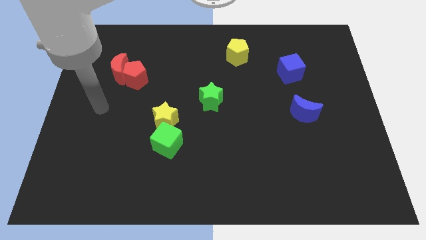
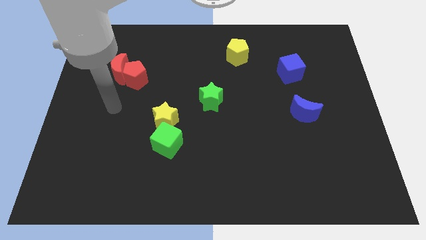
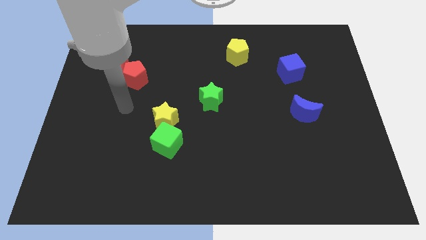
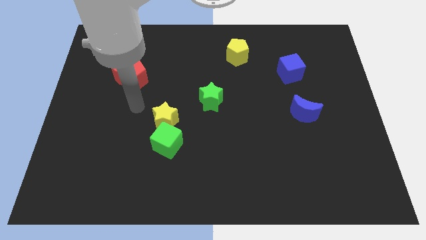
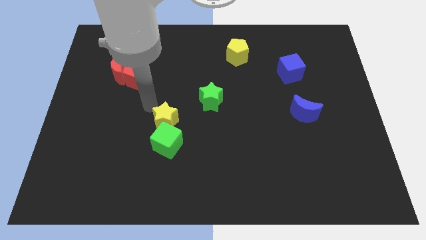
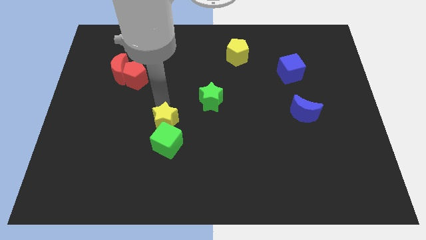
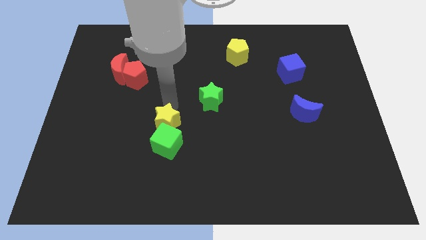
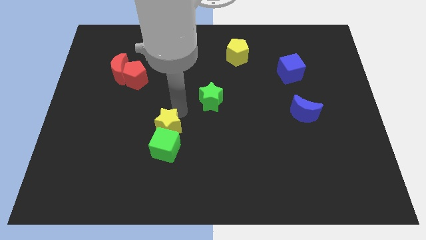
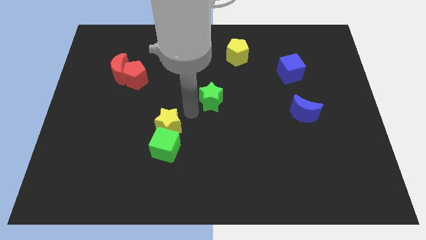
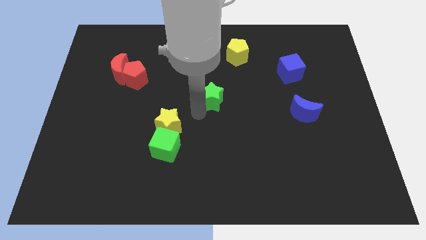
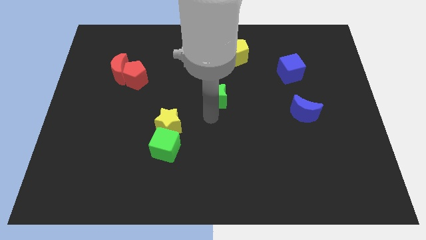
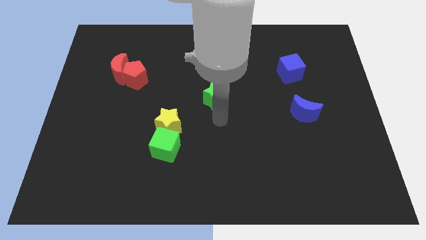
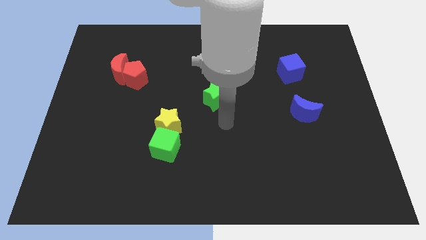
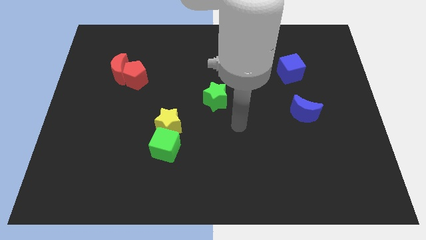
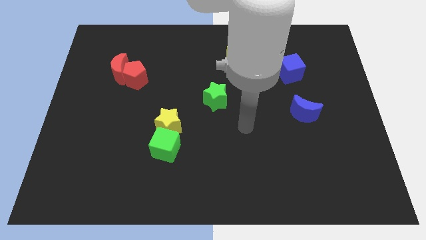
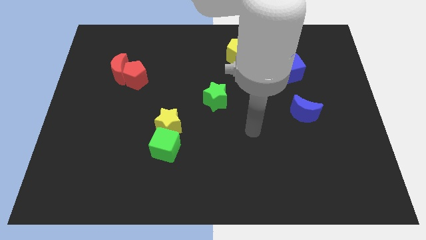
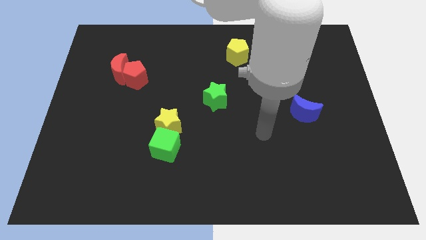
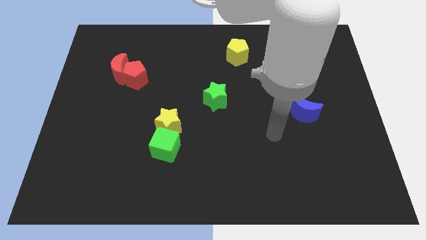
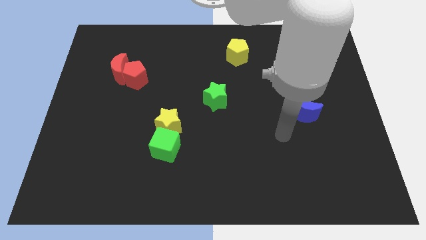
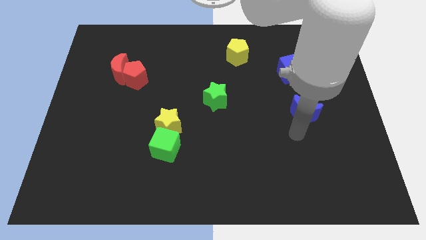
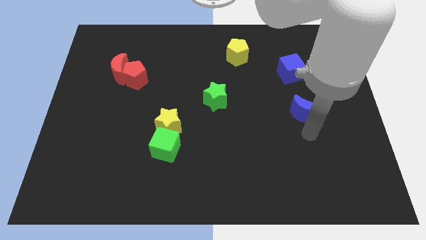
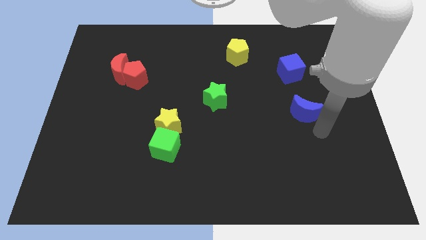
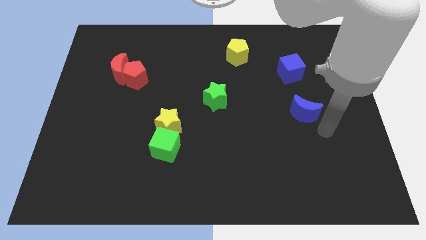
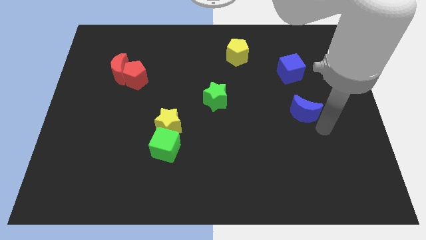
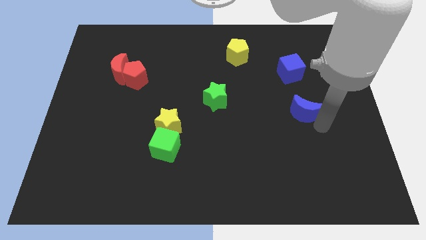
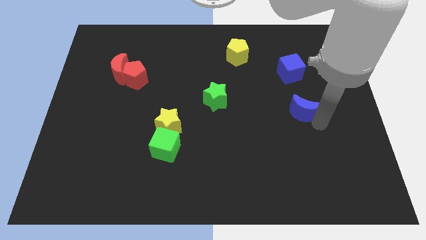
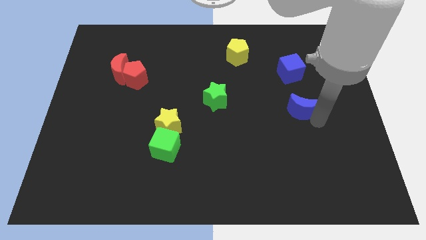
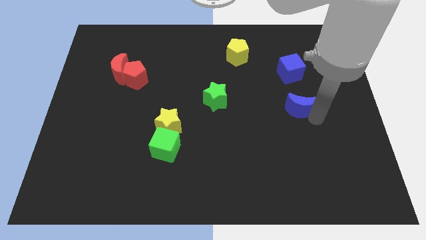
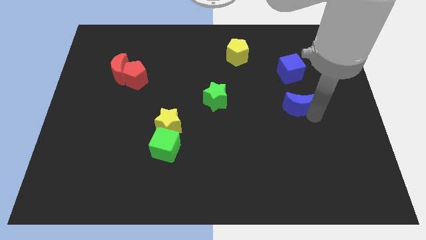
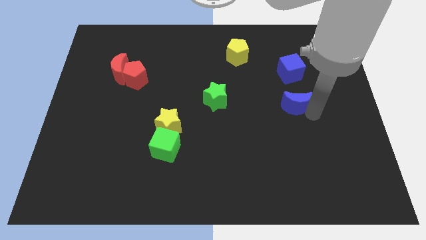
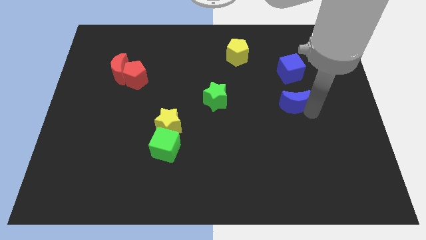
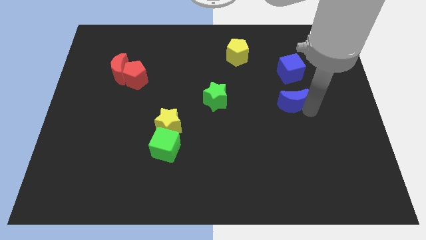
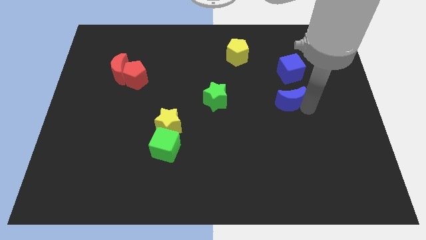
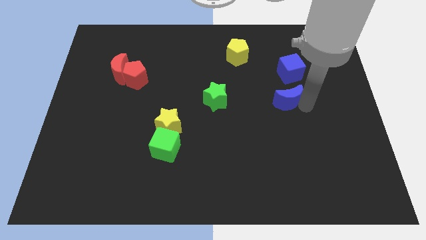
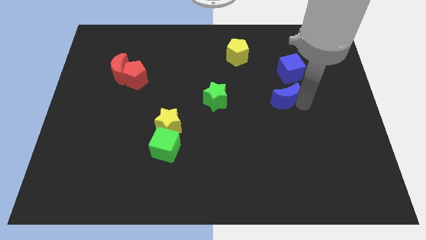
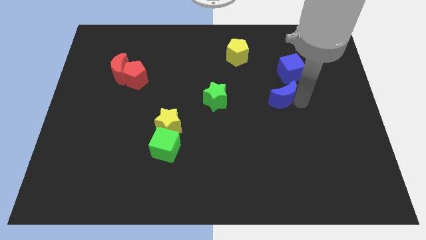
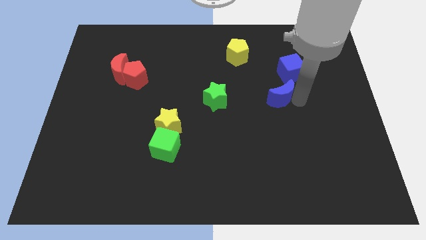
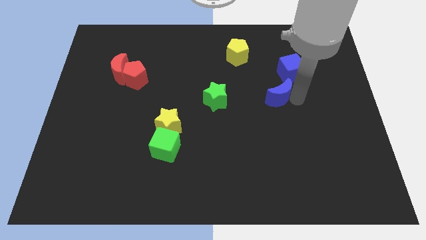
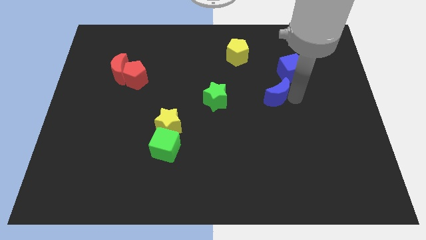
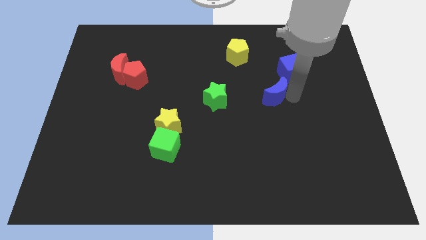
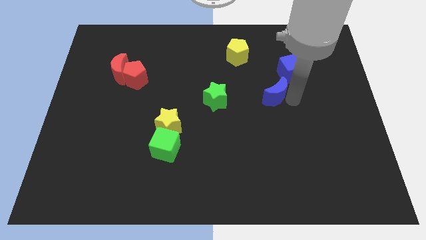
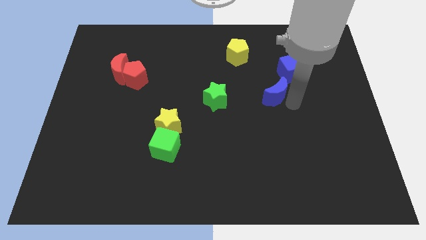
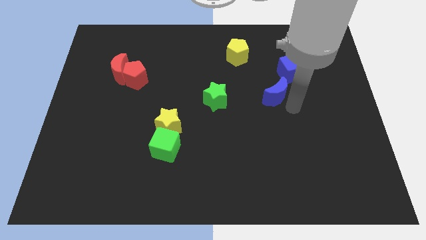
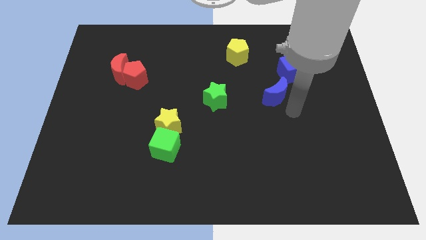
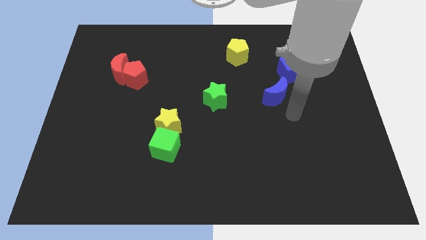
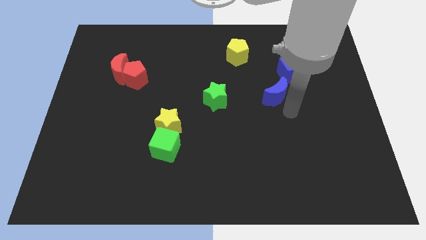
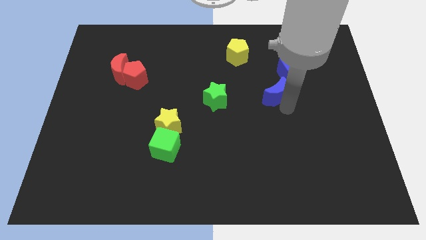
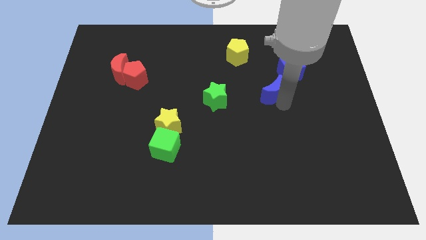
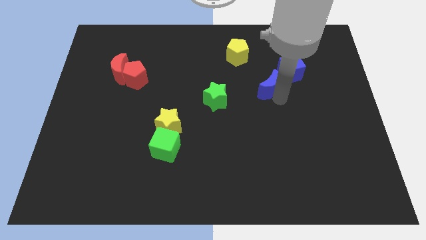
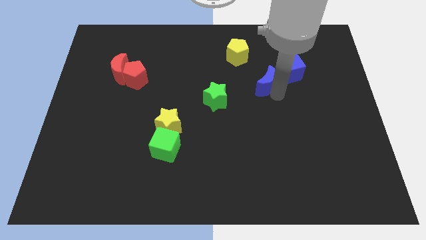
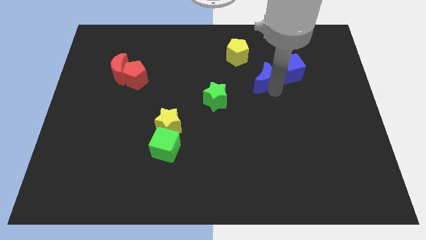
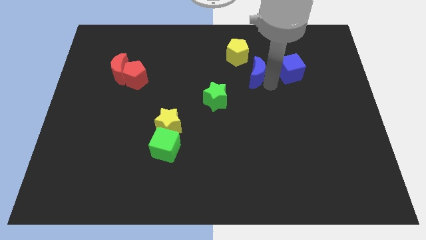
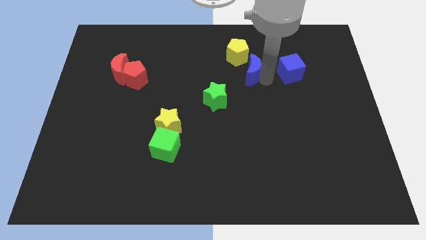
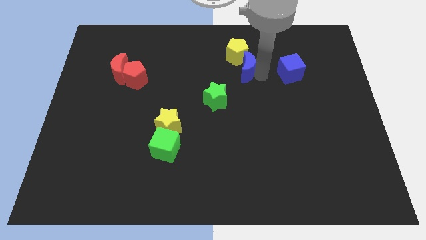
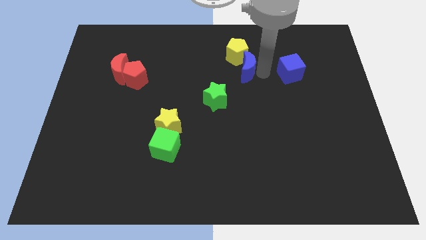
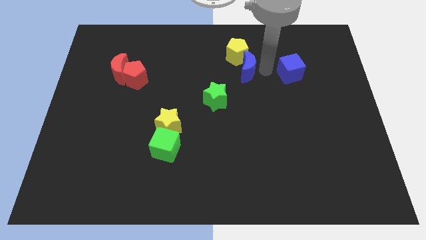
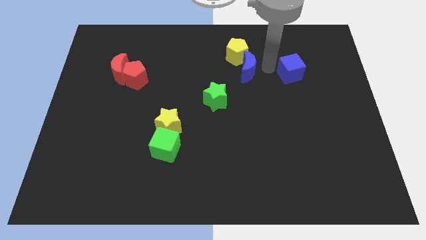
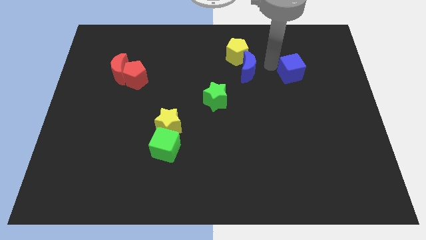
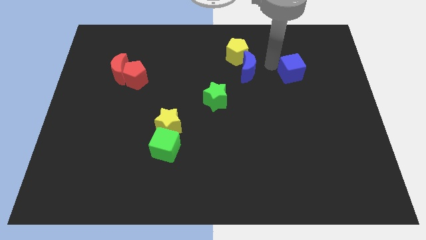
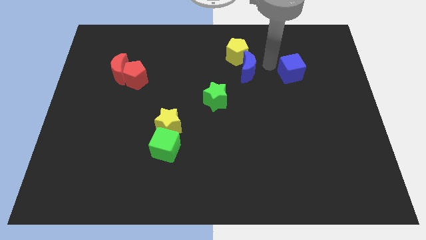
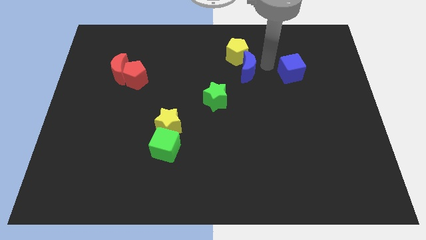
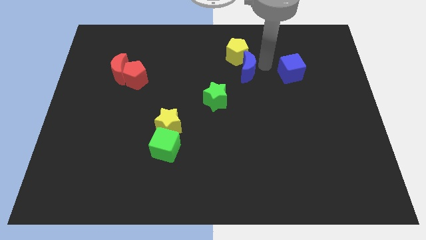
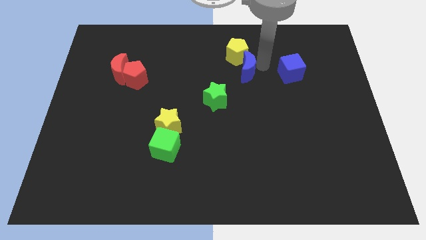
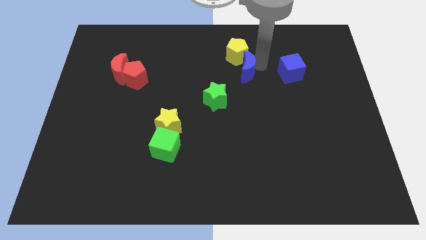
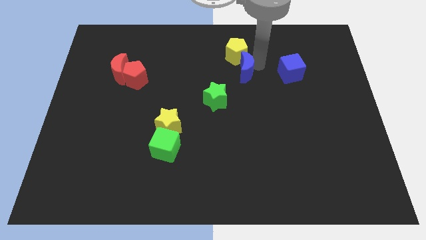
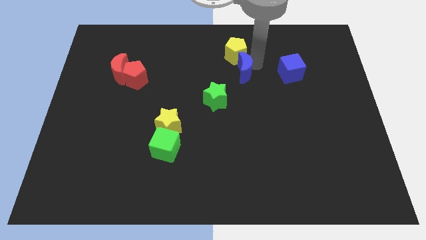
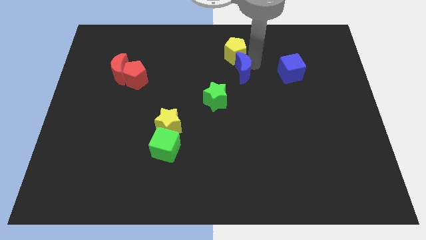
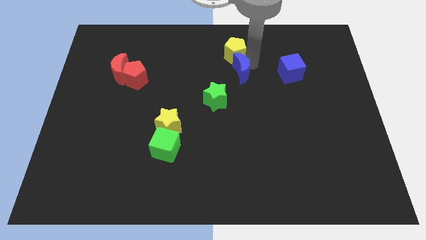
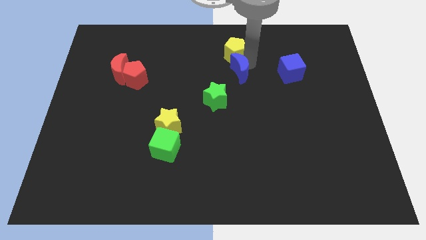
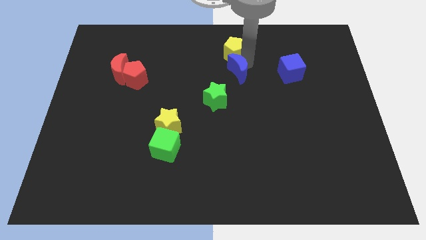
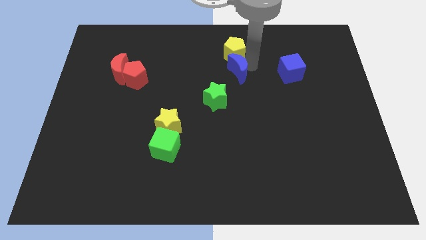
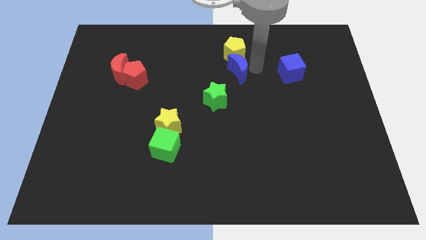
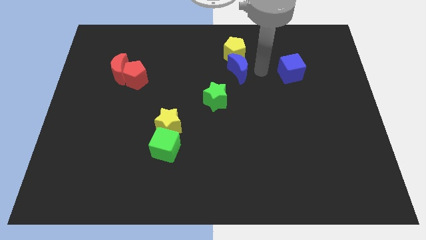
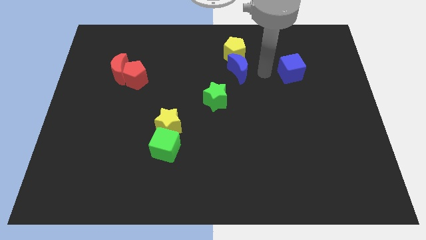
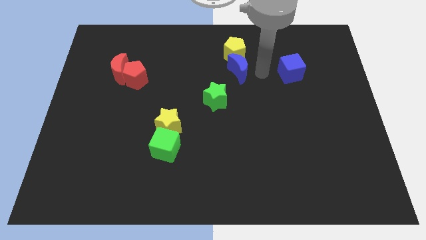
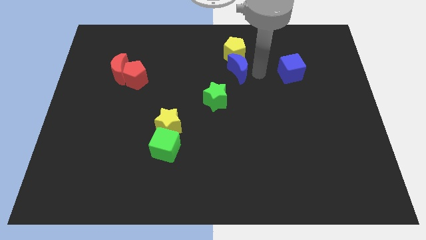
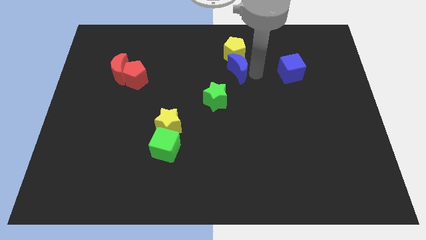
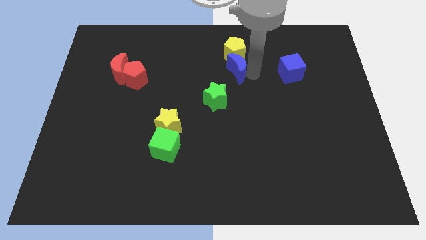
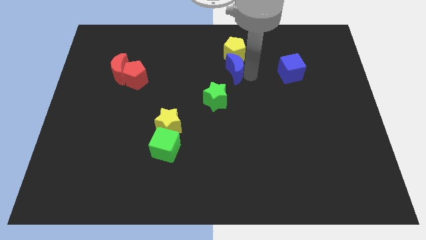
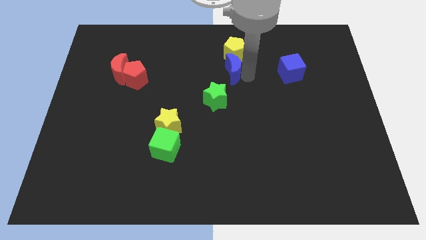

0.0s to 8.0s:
push the blue moon above the green star
